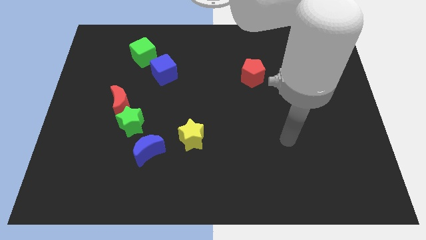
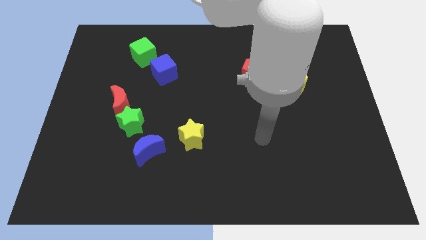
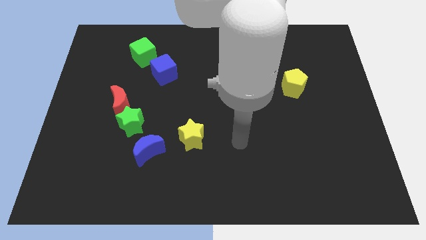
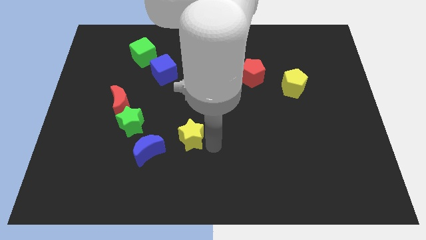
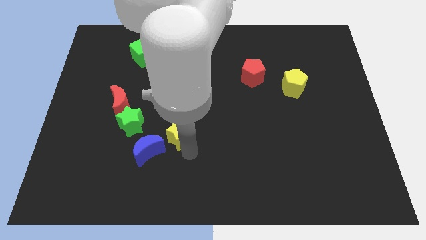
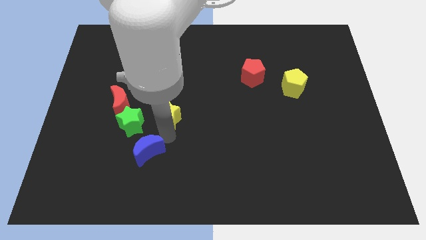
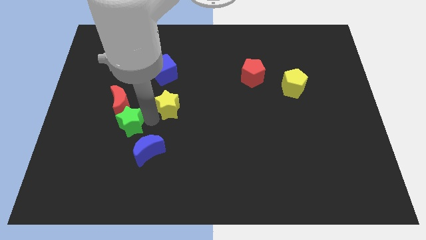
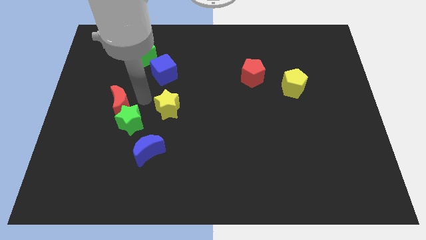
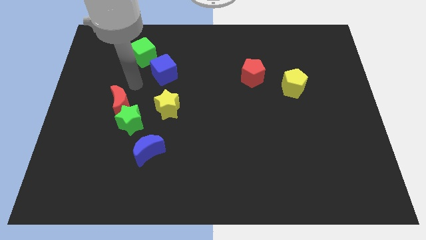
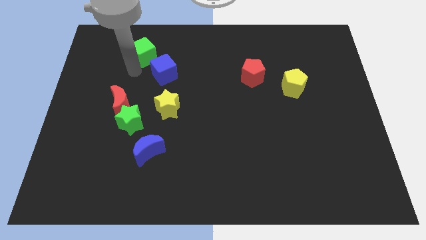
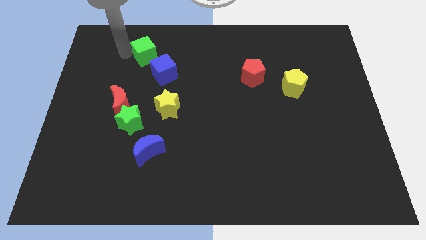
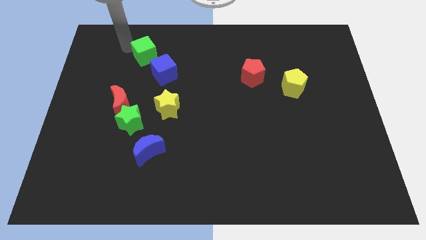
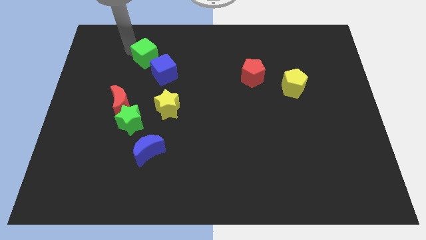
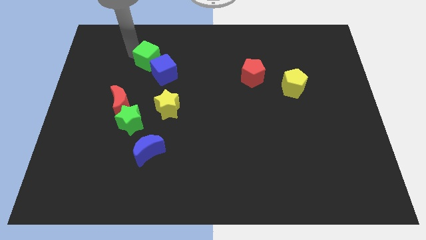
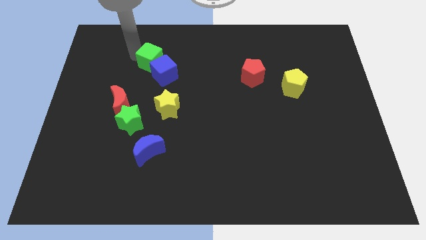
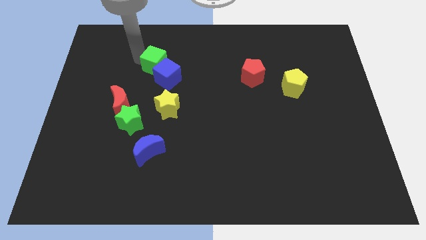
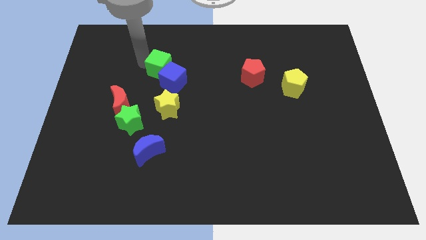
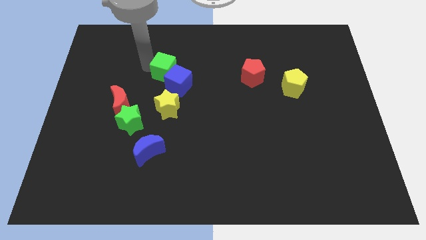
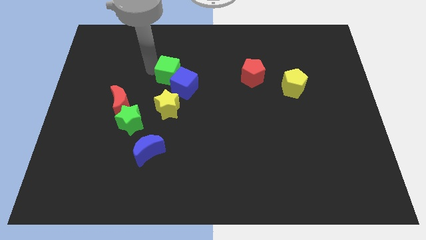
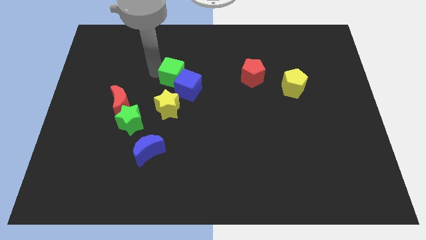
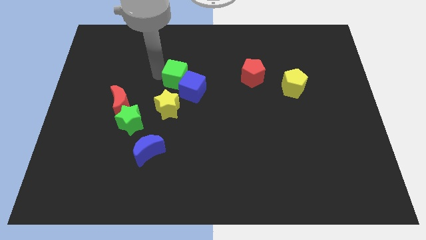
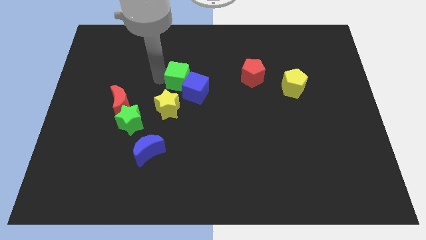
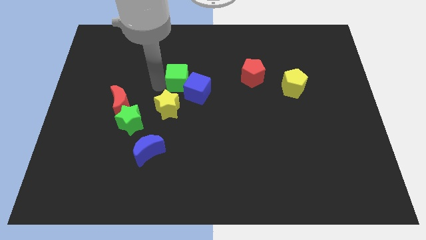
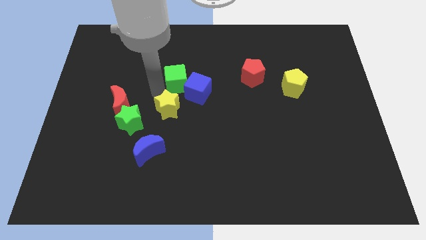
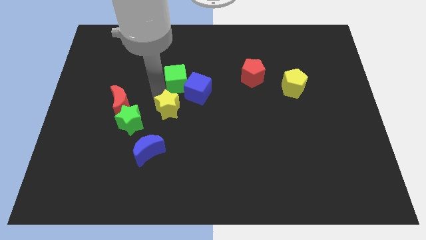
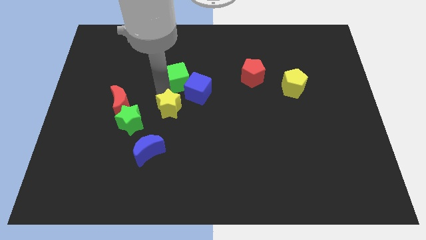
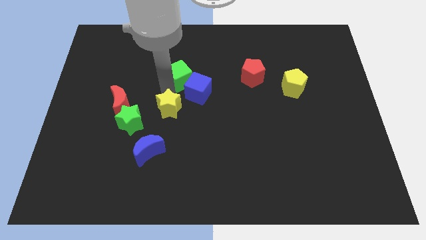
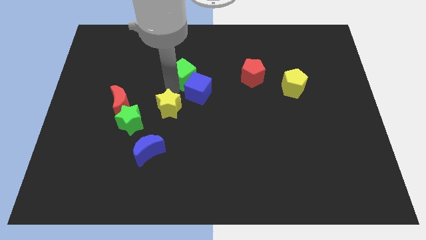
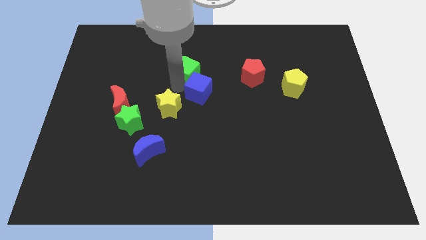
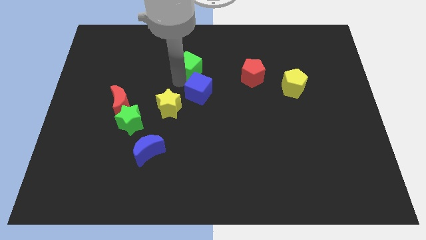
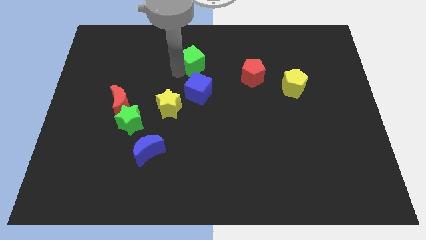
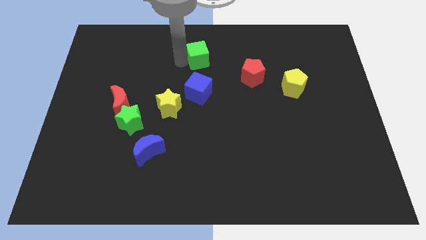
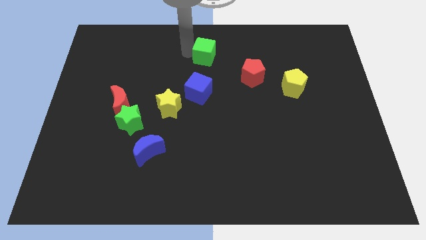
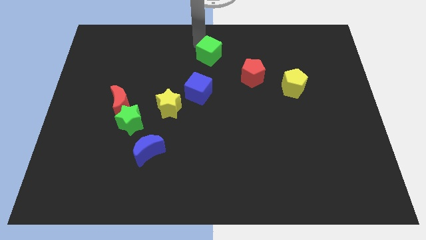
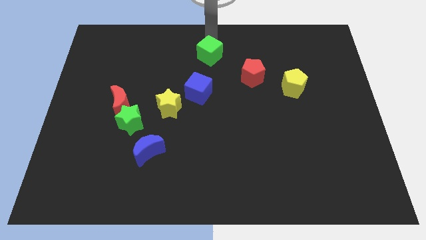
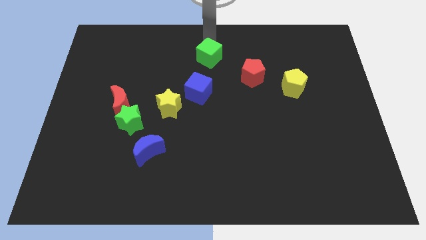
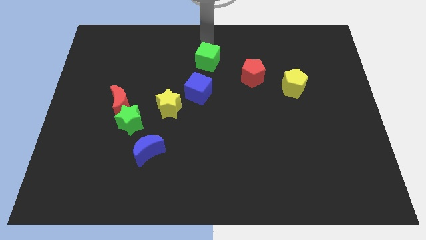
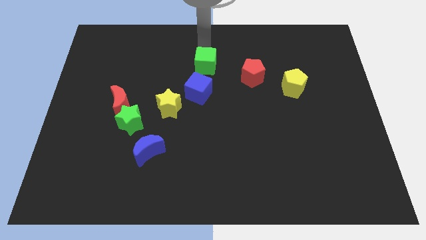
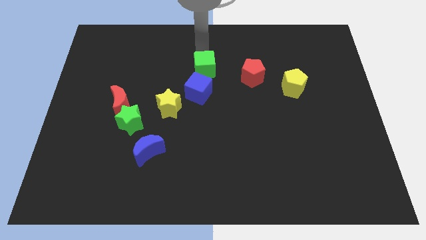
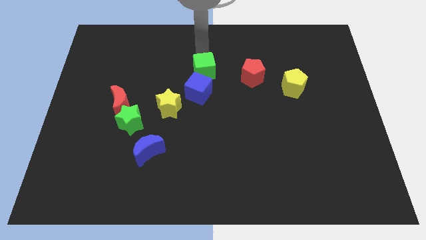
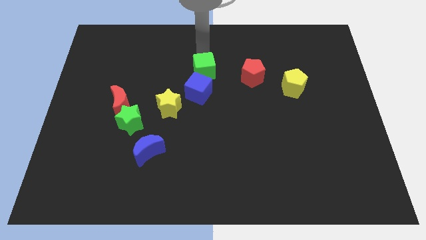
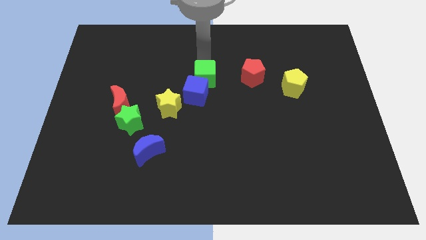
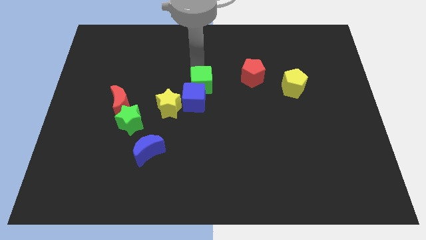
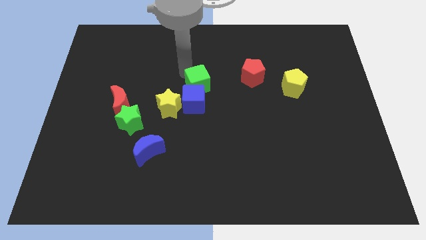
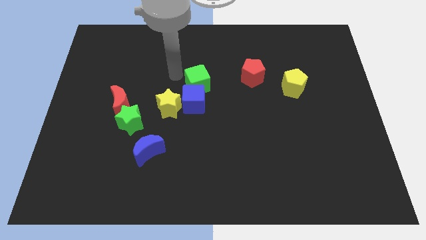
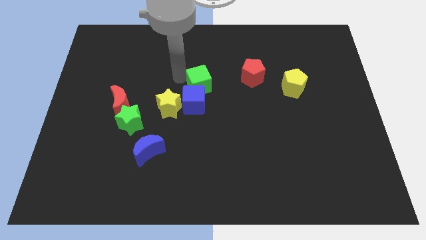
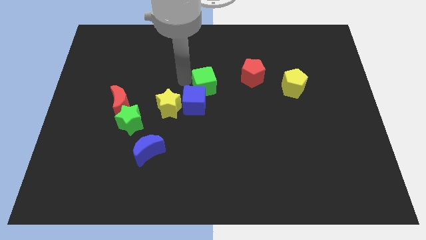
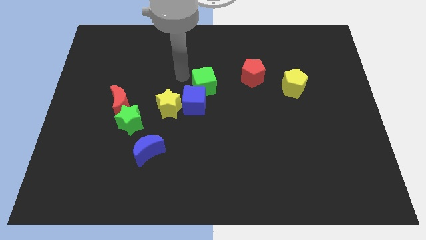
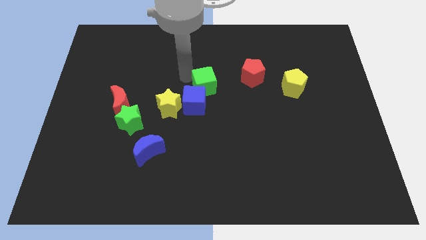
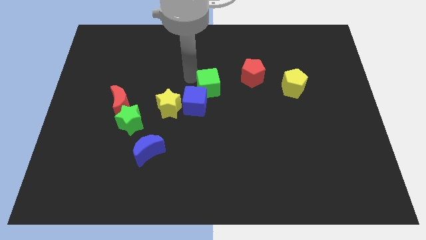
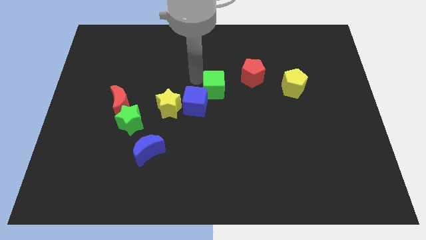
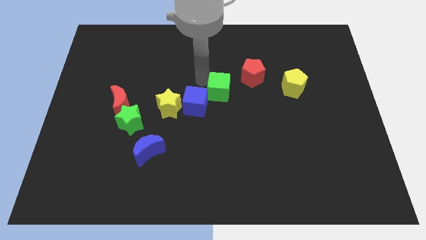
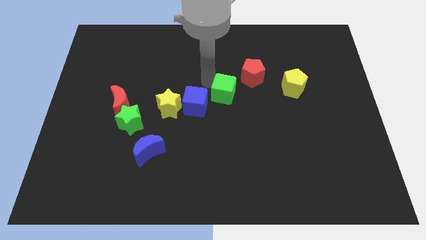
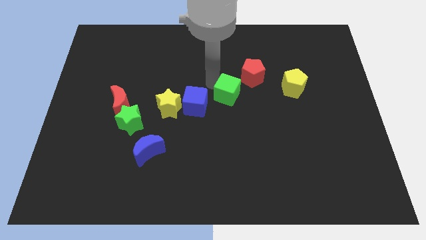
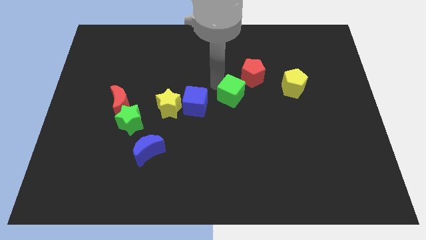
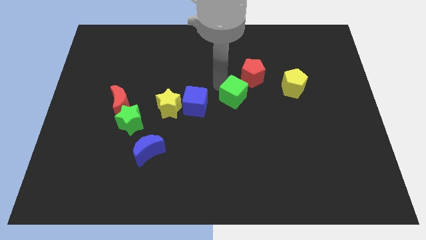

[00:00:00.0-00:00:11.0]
slide the green cube below the red pentagon

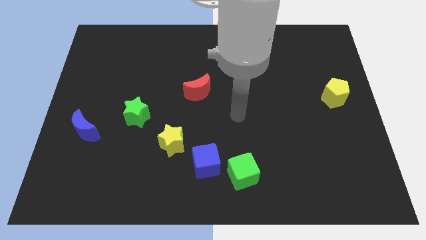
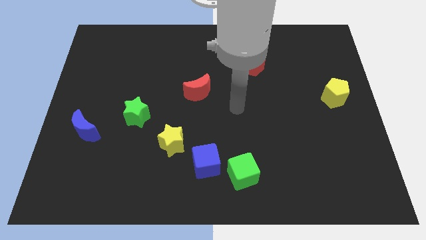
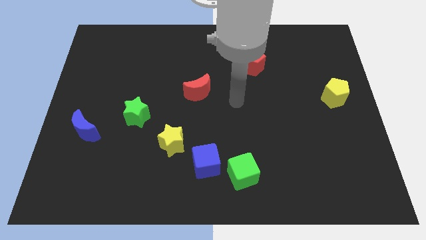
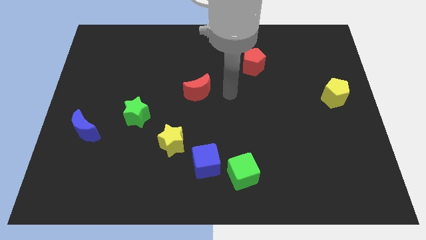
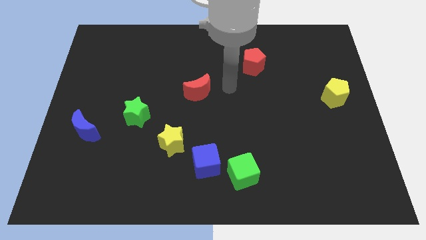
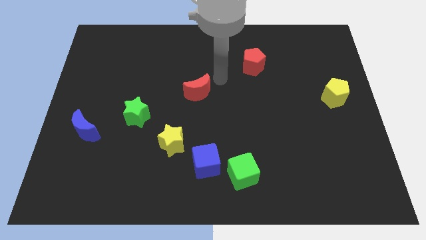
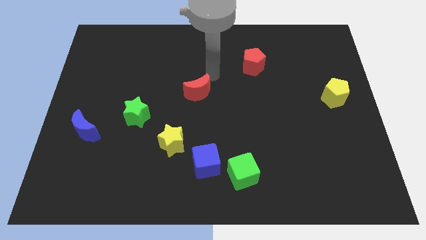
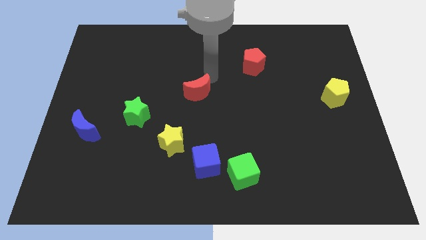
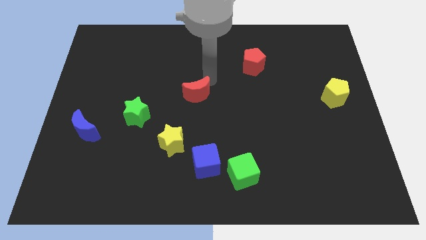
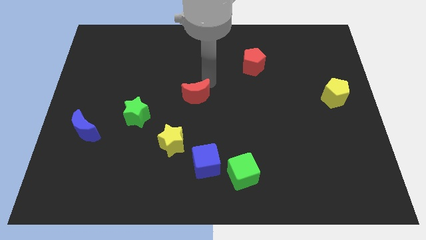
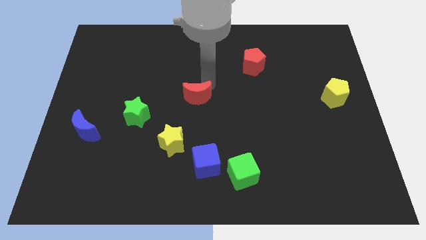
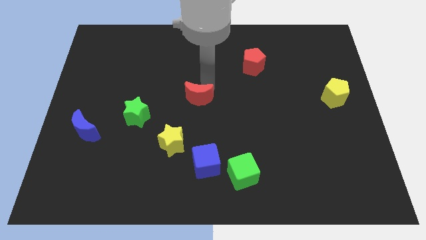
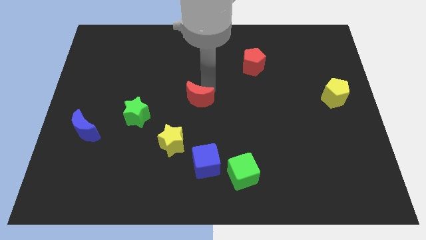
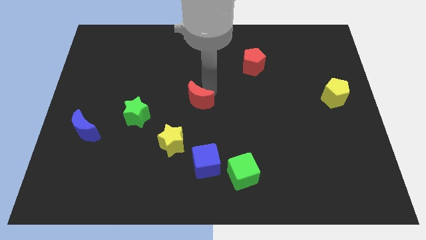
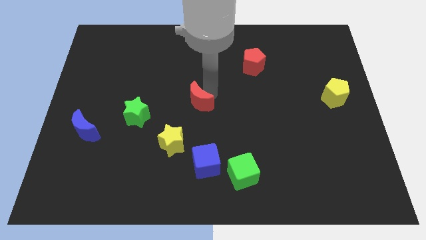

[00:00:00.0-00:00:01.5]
move the red moon to the right side of the green star
